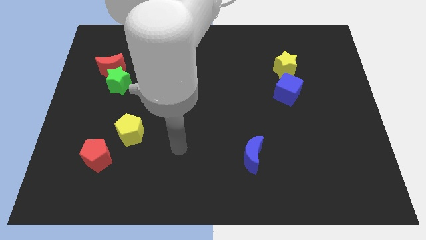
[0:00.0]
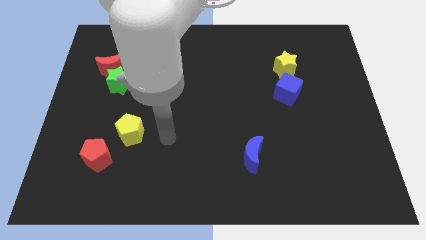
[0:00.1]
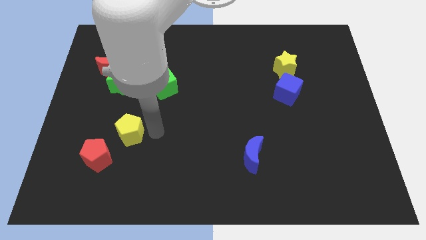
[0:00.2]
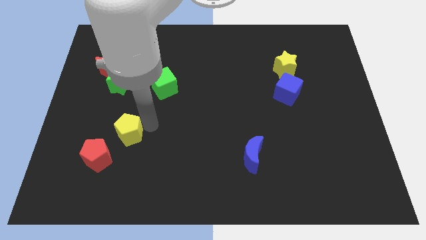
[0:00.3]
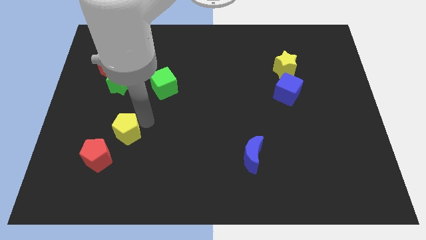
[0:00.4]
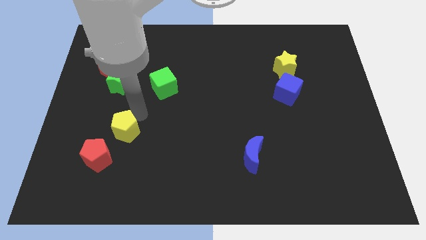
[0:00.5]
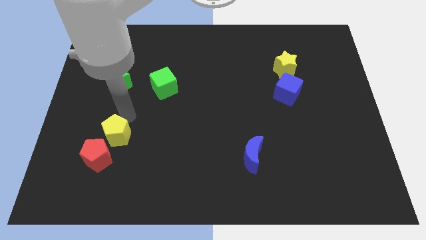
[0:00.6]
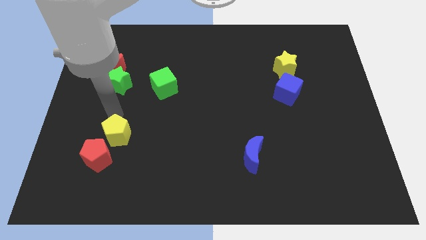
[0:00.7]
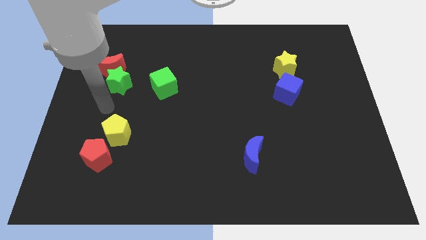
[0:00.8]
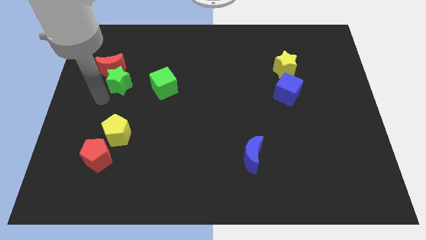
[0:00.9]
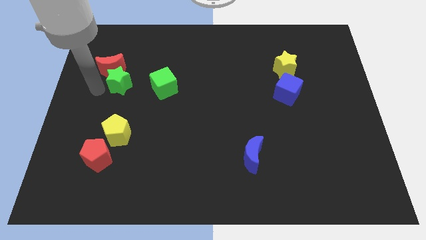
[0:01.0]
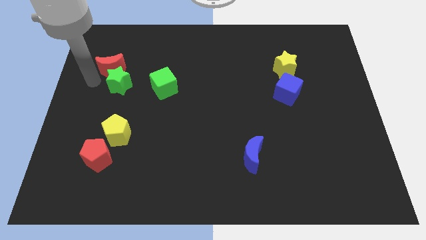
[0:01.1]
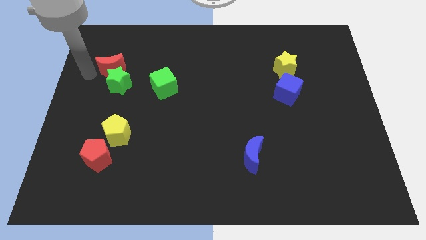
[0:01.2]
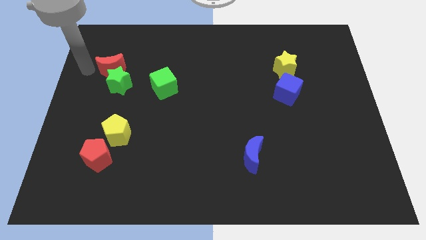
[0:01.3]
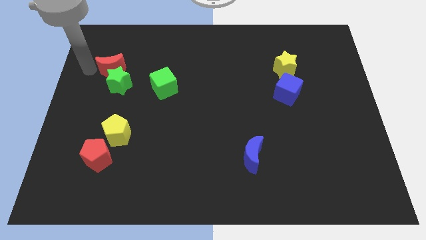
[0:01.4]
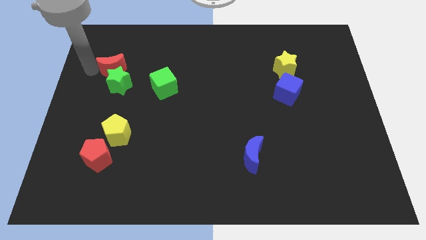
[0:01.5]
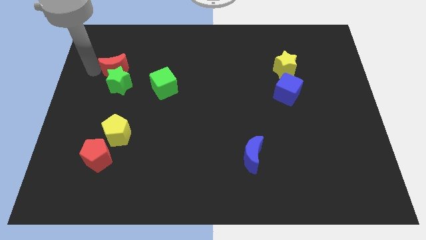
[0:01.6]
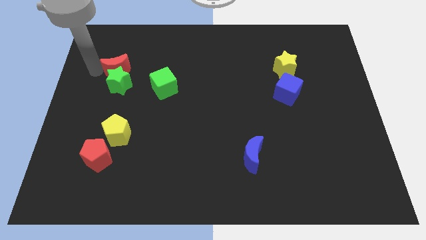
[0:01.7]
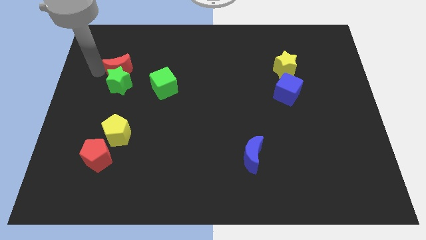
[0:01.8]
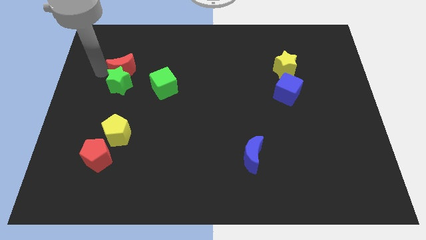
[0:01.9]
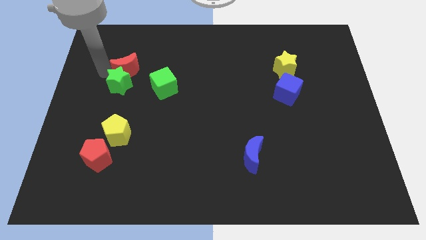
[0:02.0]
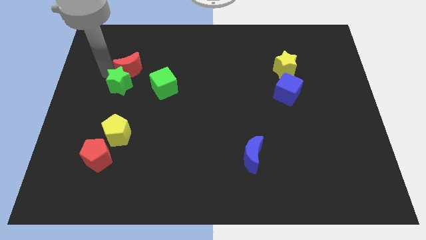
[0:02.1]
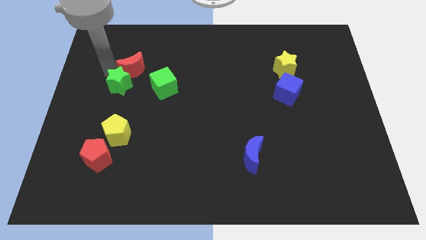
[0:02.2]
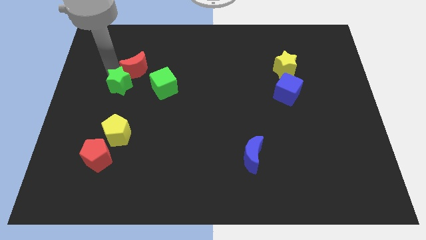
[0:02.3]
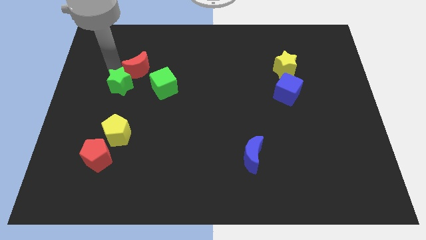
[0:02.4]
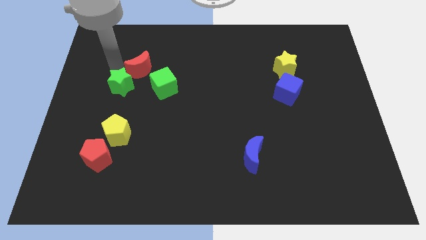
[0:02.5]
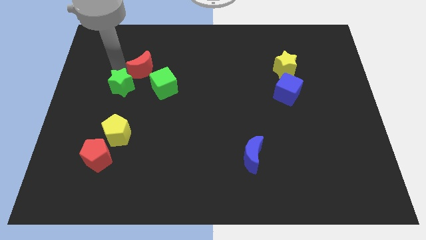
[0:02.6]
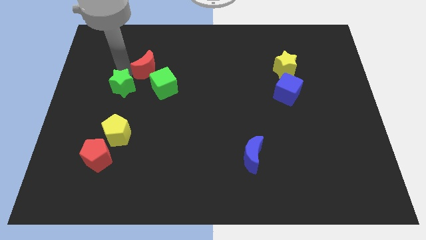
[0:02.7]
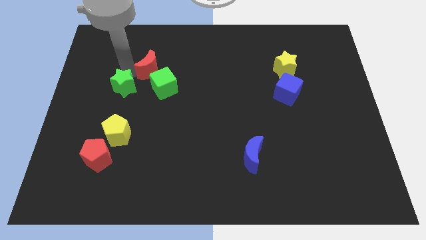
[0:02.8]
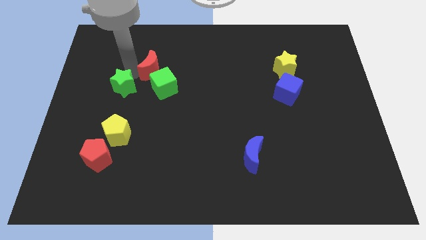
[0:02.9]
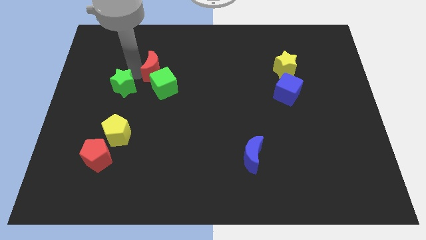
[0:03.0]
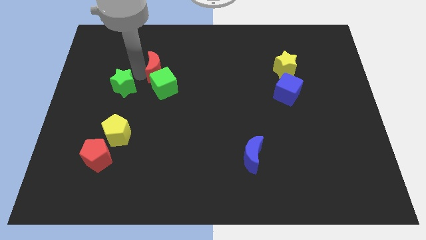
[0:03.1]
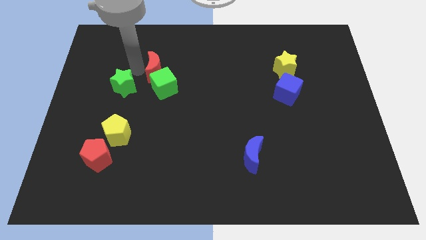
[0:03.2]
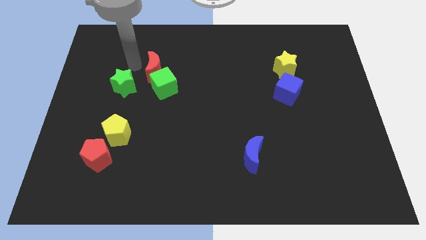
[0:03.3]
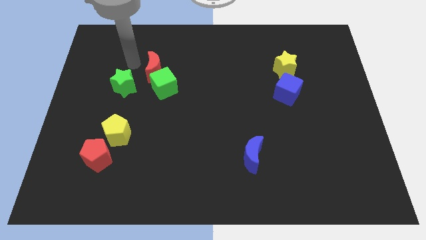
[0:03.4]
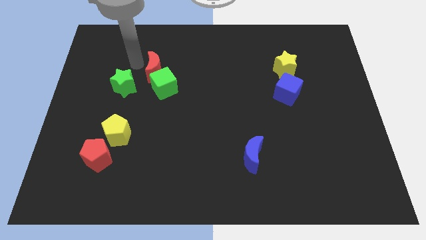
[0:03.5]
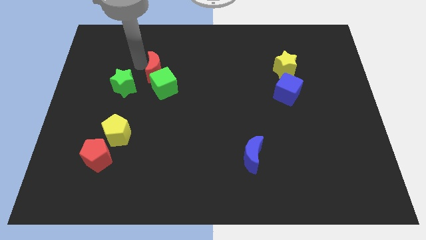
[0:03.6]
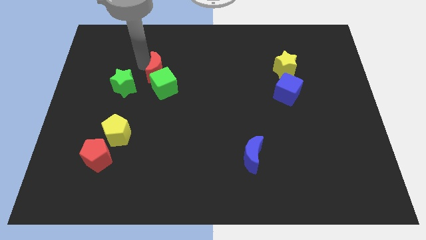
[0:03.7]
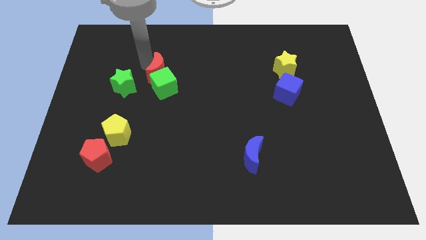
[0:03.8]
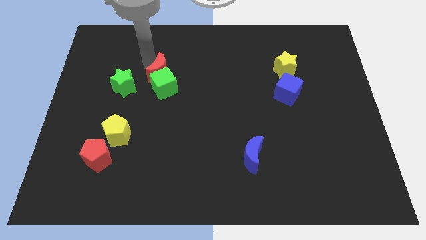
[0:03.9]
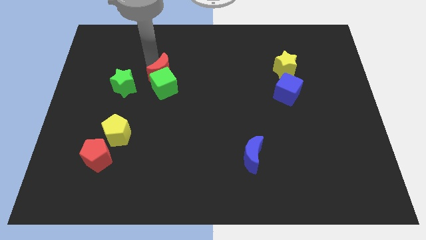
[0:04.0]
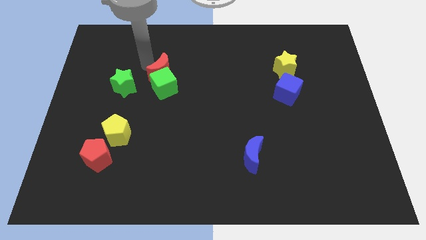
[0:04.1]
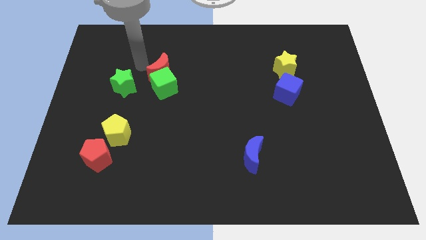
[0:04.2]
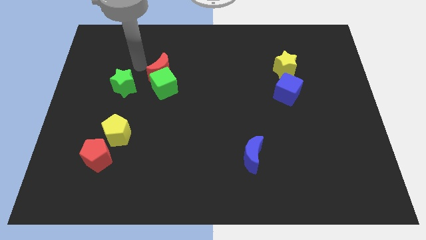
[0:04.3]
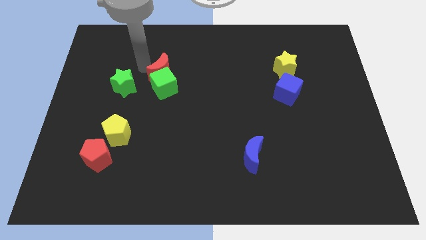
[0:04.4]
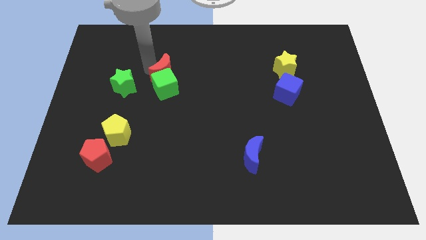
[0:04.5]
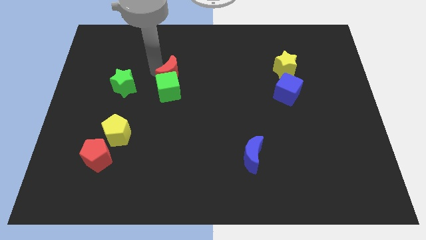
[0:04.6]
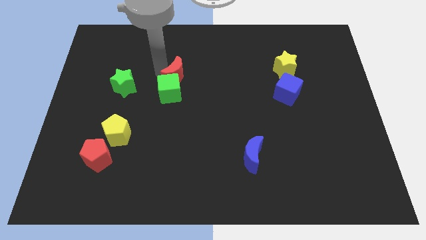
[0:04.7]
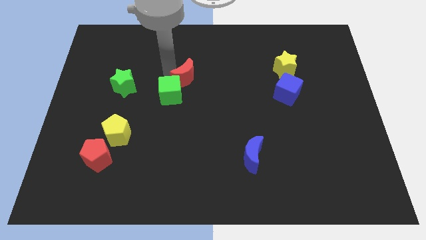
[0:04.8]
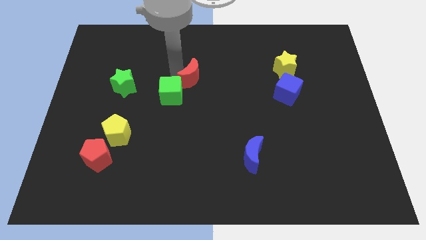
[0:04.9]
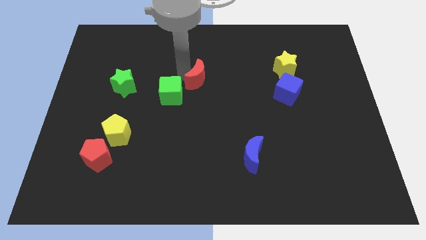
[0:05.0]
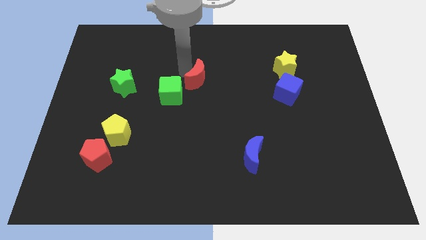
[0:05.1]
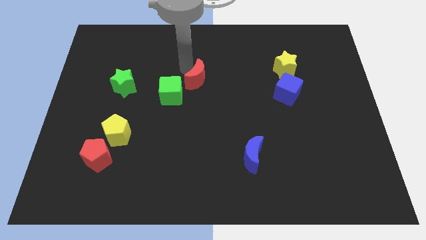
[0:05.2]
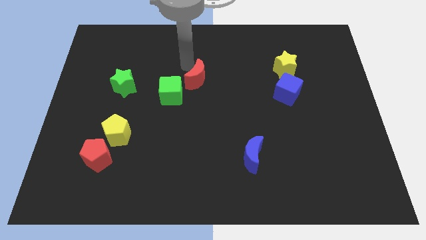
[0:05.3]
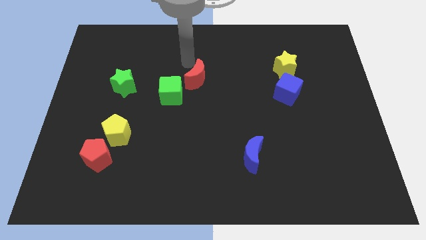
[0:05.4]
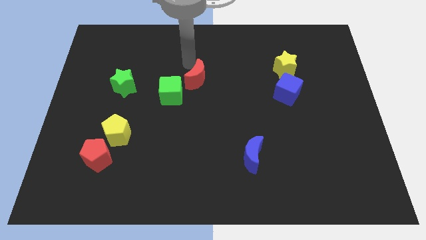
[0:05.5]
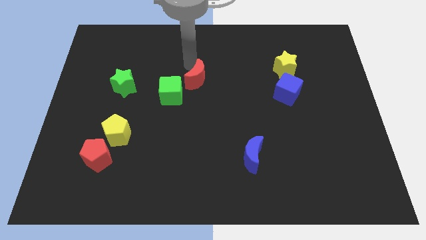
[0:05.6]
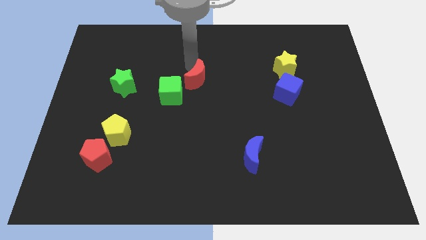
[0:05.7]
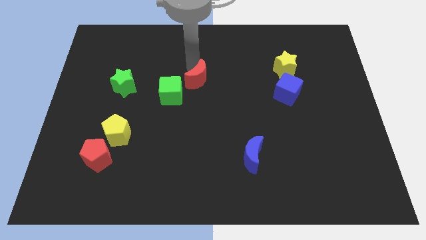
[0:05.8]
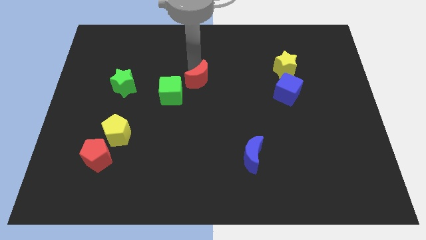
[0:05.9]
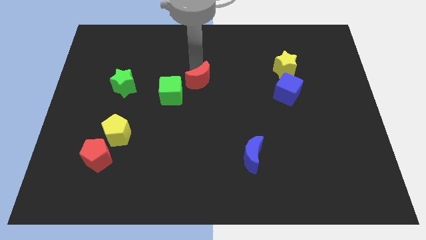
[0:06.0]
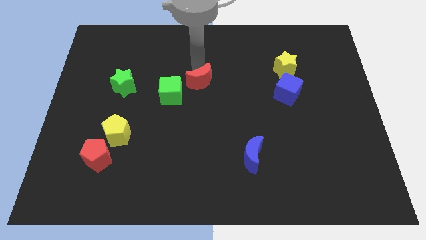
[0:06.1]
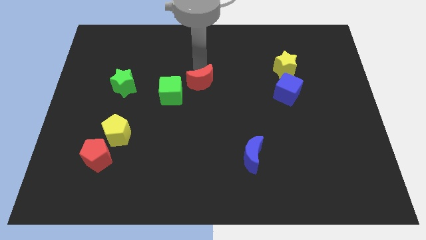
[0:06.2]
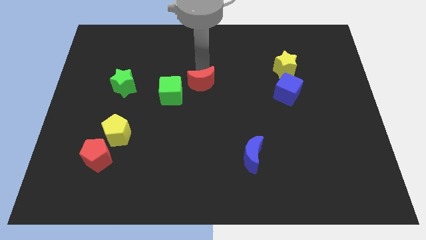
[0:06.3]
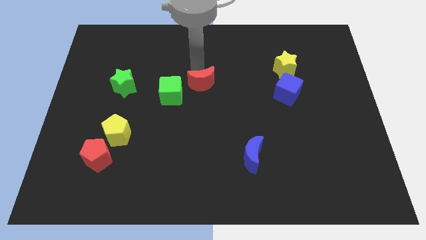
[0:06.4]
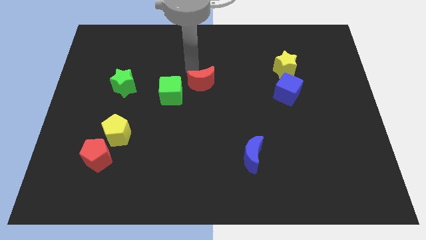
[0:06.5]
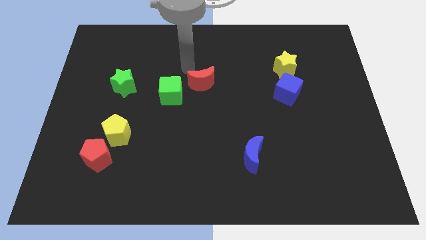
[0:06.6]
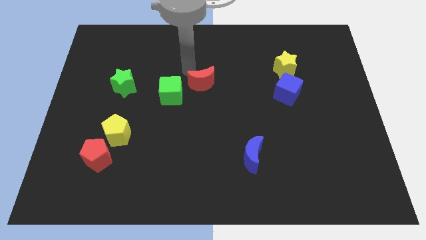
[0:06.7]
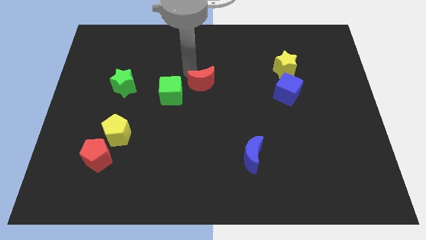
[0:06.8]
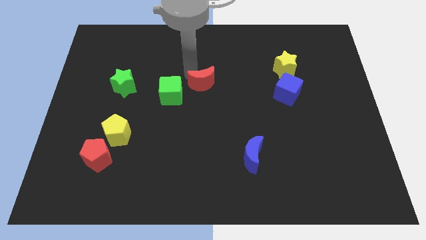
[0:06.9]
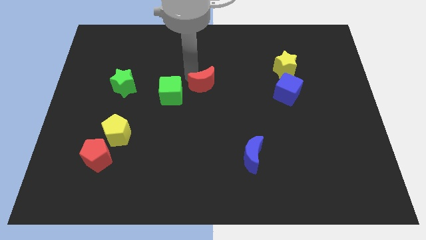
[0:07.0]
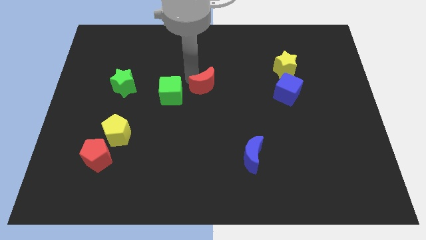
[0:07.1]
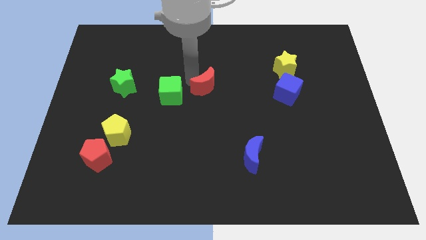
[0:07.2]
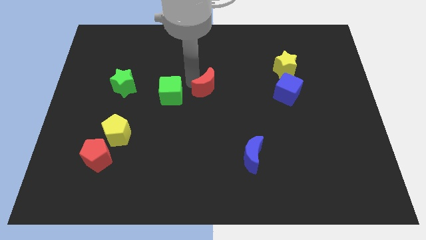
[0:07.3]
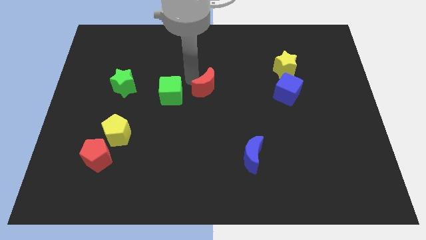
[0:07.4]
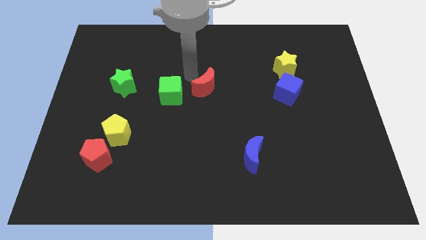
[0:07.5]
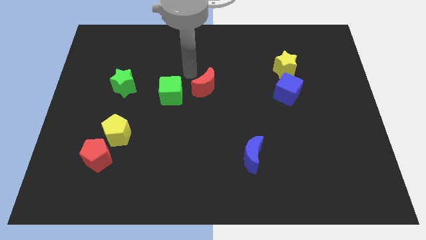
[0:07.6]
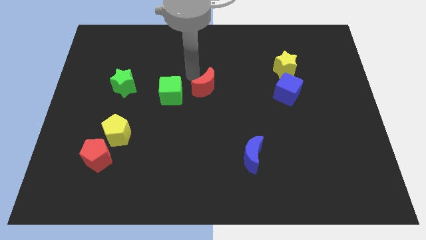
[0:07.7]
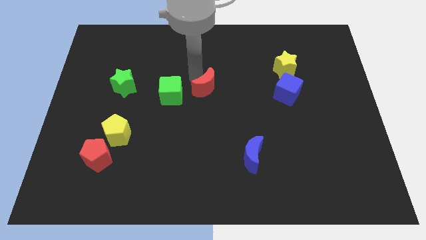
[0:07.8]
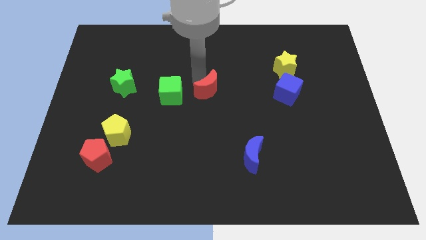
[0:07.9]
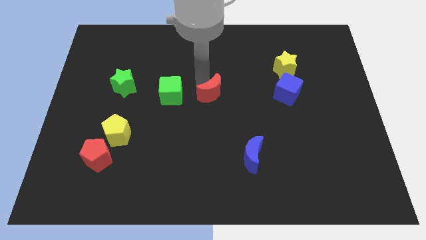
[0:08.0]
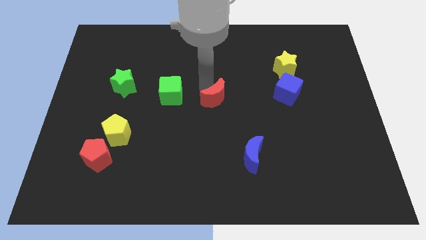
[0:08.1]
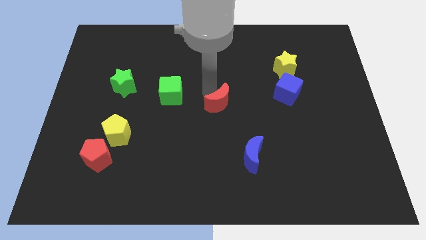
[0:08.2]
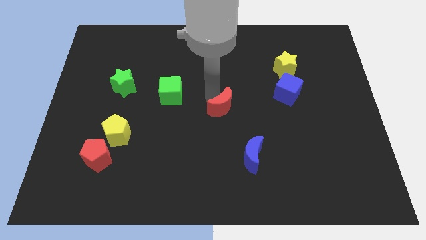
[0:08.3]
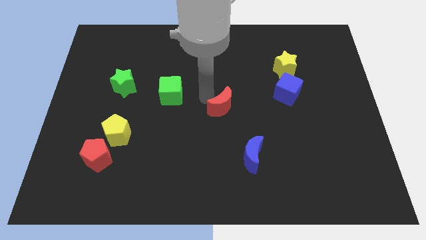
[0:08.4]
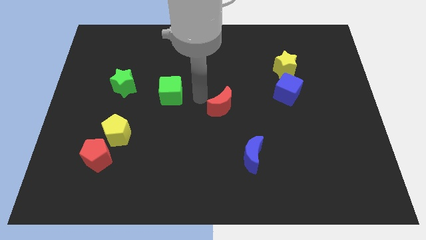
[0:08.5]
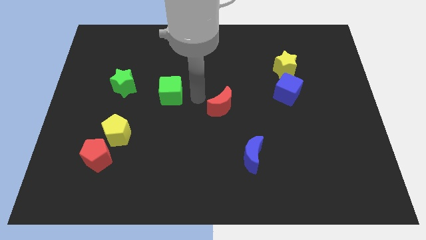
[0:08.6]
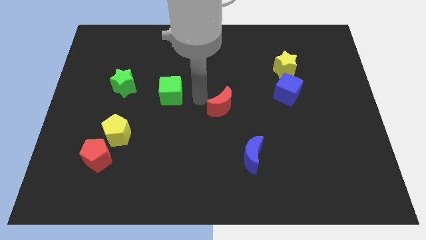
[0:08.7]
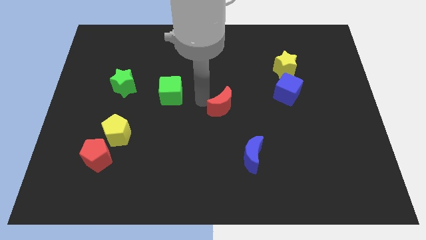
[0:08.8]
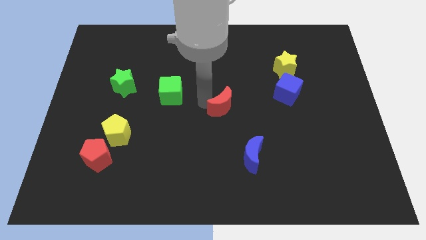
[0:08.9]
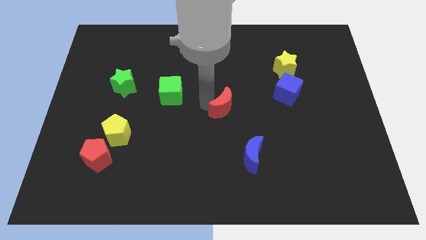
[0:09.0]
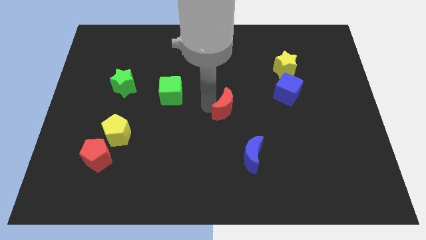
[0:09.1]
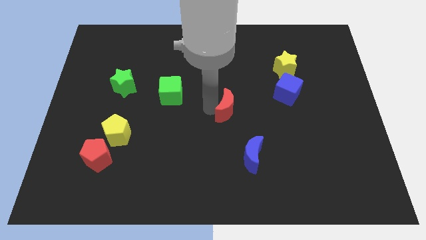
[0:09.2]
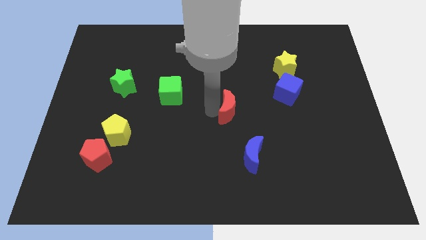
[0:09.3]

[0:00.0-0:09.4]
push the red moon to the top side of the blue moon
